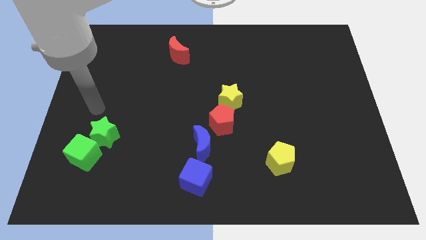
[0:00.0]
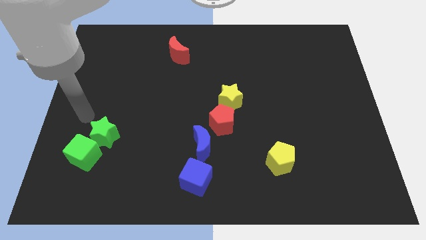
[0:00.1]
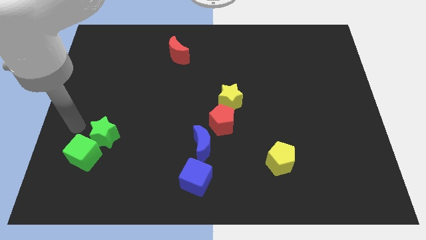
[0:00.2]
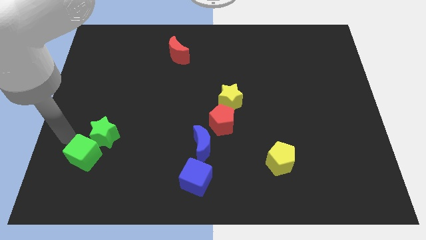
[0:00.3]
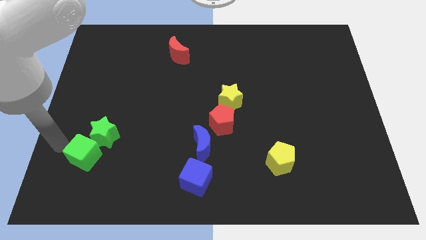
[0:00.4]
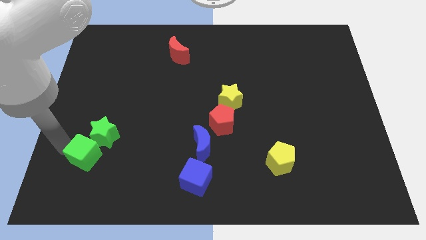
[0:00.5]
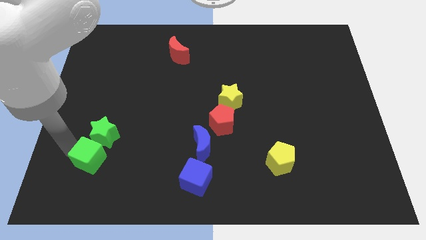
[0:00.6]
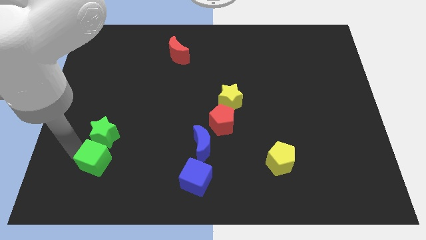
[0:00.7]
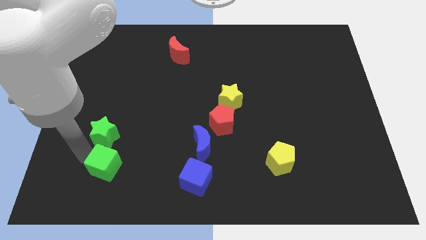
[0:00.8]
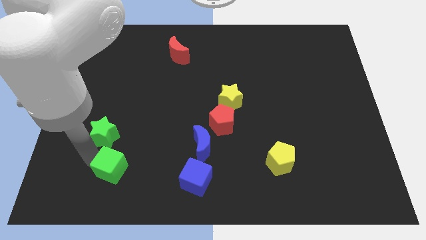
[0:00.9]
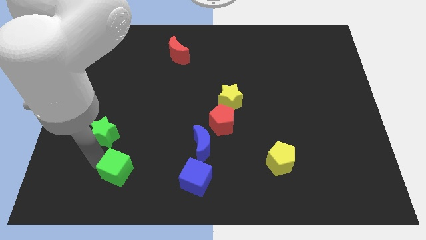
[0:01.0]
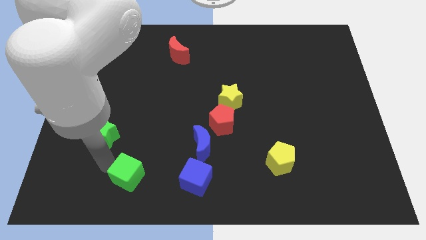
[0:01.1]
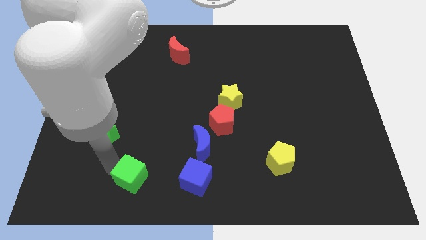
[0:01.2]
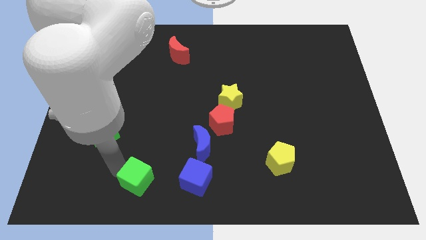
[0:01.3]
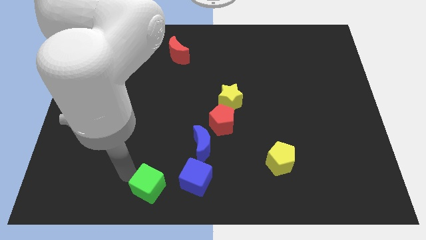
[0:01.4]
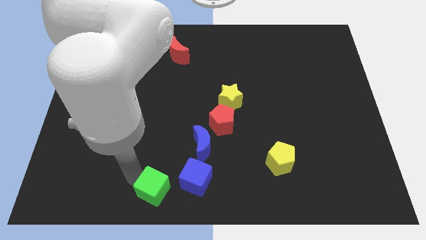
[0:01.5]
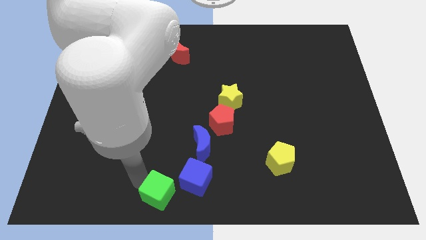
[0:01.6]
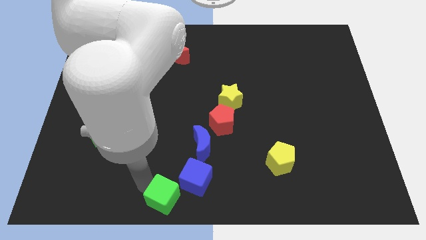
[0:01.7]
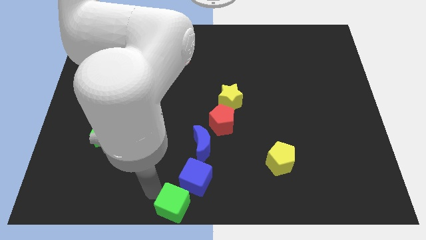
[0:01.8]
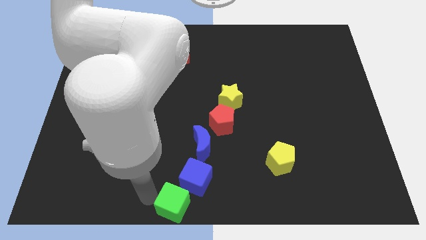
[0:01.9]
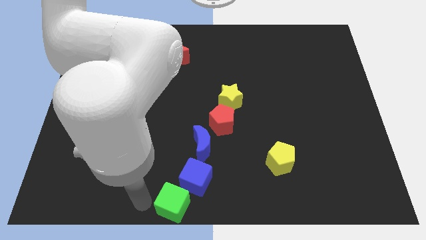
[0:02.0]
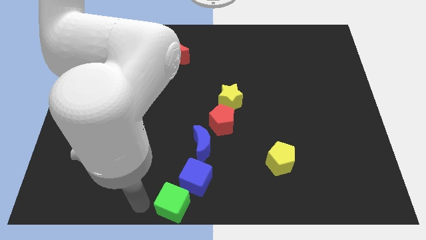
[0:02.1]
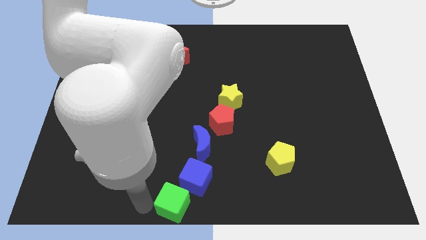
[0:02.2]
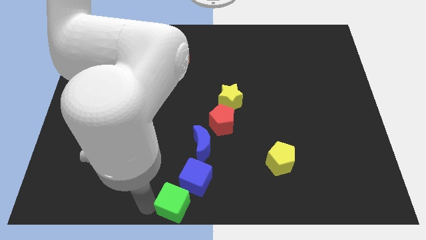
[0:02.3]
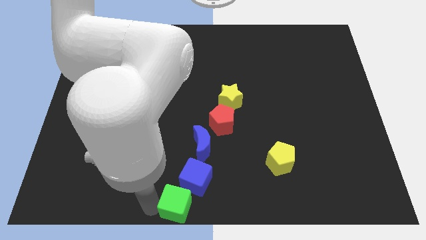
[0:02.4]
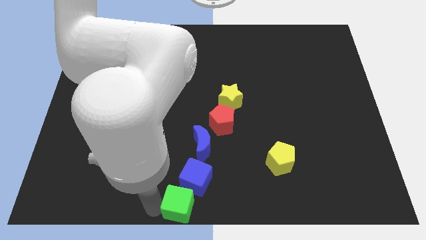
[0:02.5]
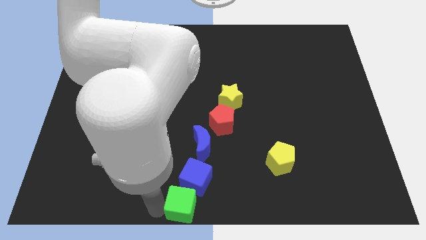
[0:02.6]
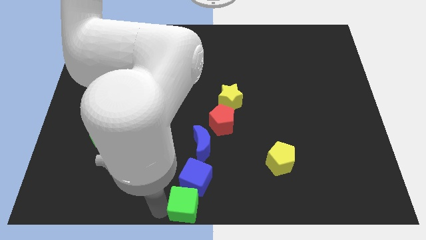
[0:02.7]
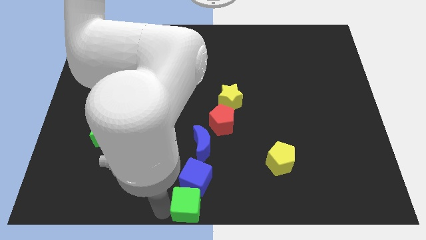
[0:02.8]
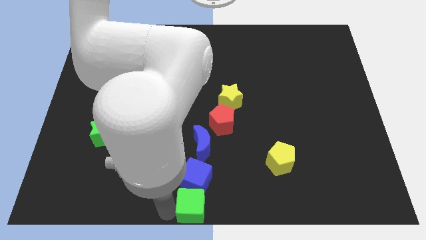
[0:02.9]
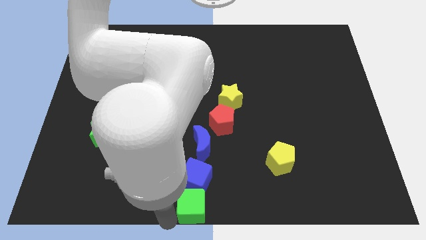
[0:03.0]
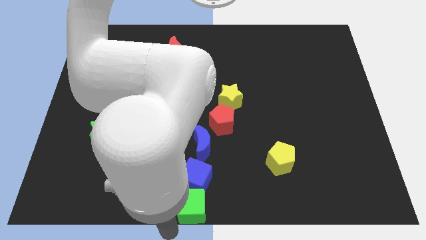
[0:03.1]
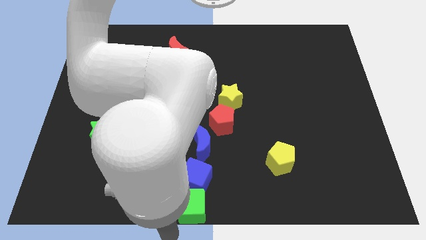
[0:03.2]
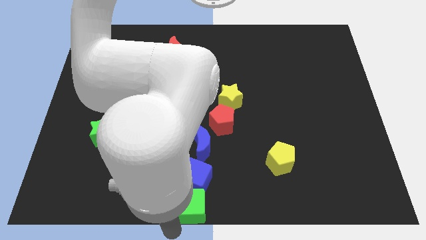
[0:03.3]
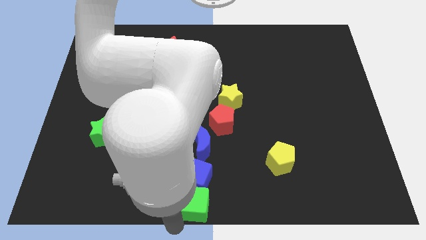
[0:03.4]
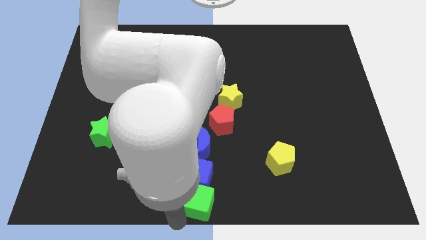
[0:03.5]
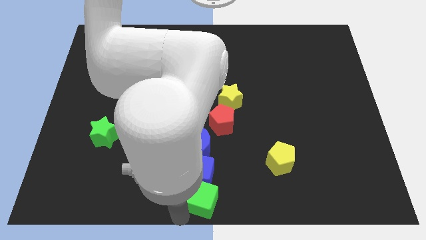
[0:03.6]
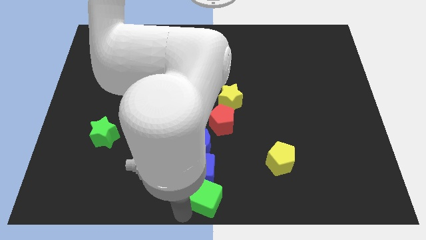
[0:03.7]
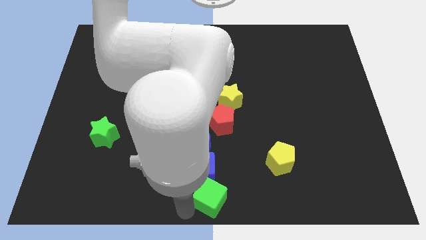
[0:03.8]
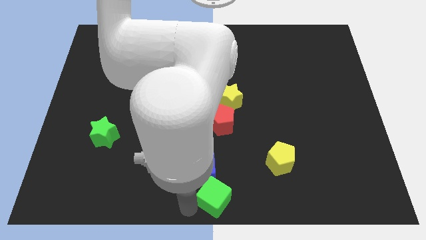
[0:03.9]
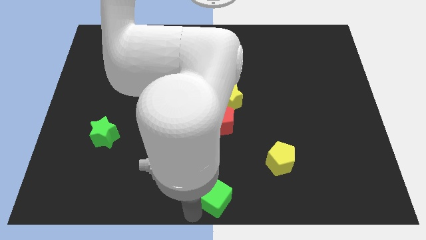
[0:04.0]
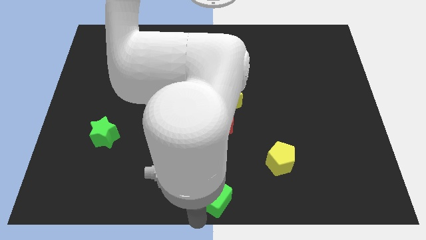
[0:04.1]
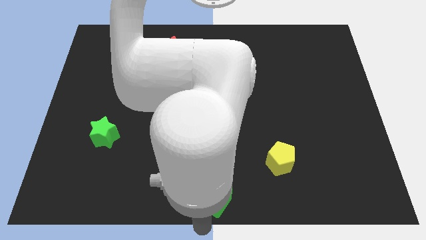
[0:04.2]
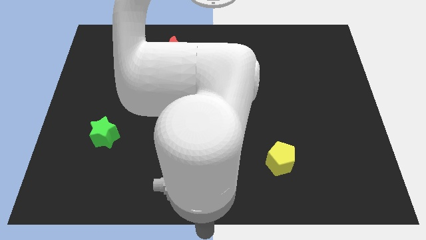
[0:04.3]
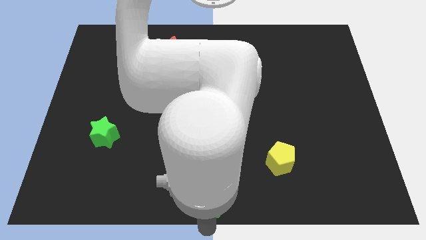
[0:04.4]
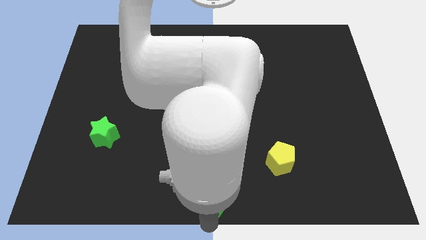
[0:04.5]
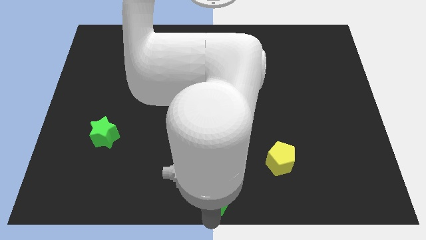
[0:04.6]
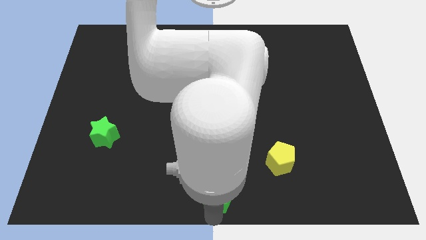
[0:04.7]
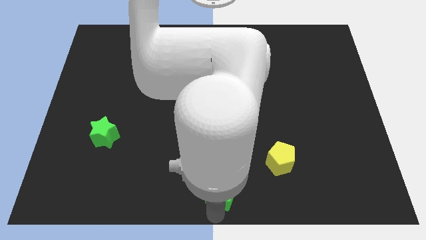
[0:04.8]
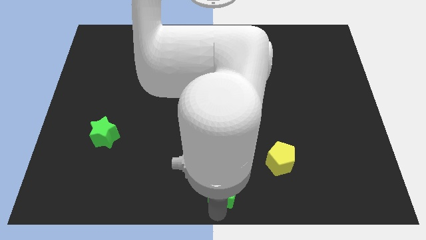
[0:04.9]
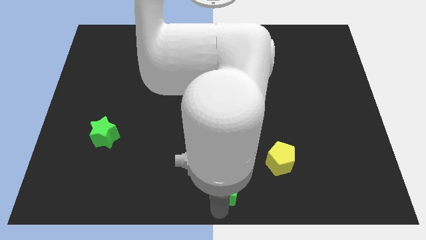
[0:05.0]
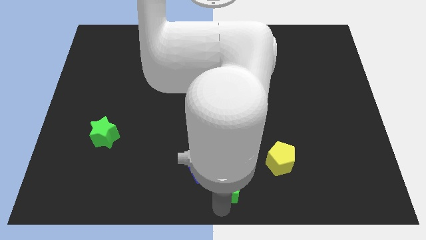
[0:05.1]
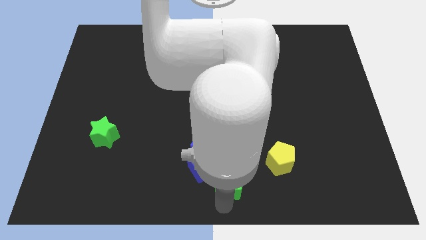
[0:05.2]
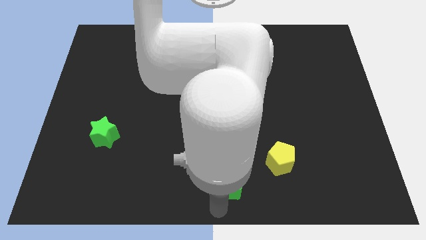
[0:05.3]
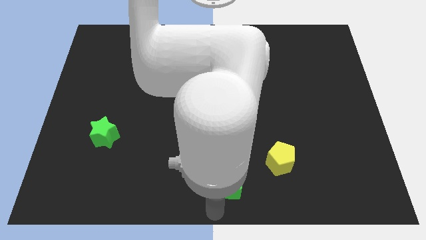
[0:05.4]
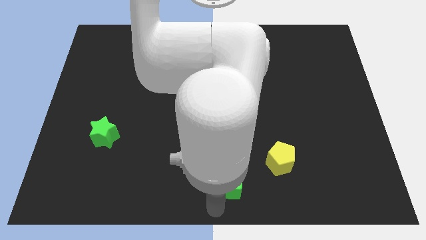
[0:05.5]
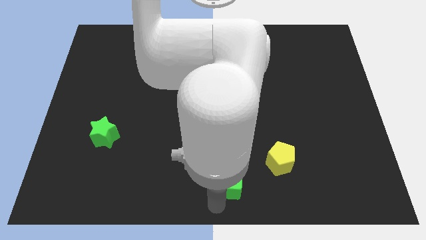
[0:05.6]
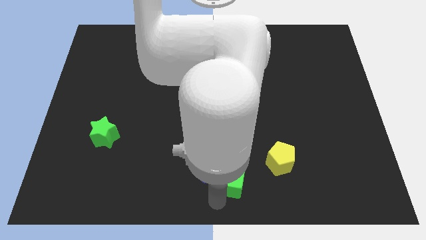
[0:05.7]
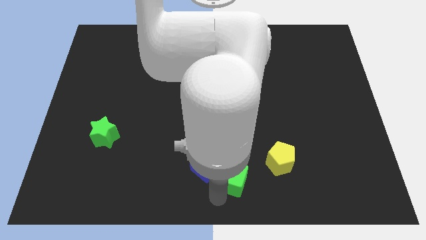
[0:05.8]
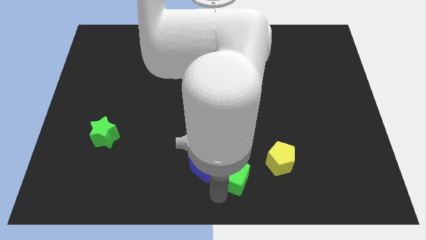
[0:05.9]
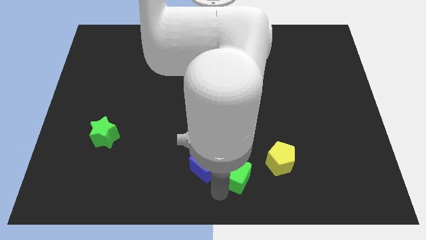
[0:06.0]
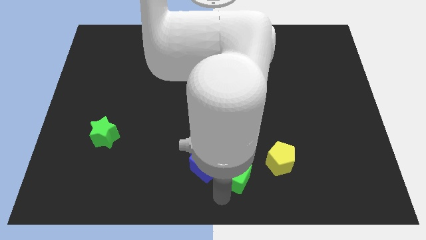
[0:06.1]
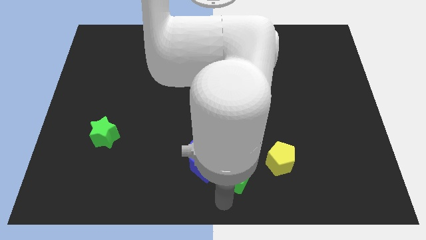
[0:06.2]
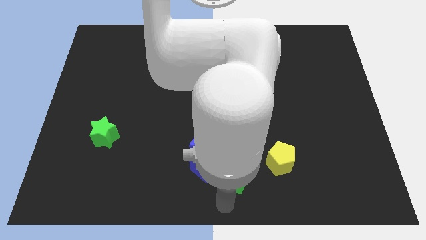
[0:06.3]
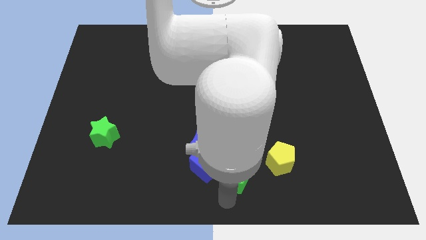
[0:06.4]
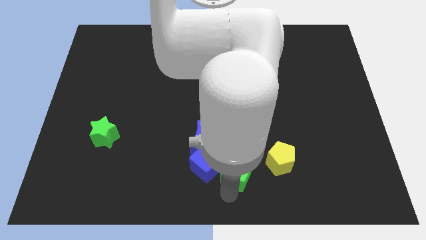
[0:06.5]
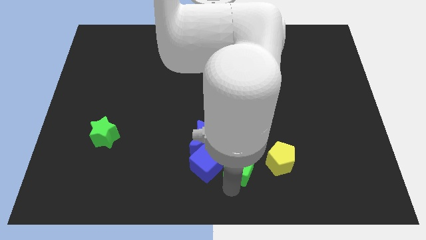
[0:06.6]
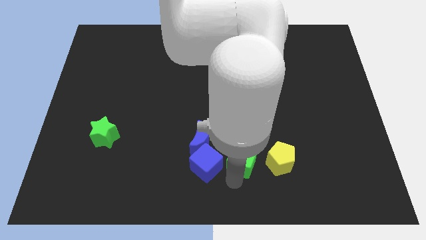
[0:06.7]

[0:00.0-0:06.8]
slide the green cube to the right of the blue moon
